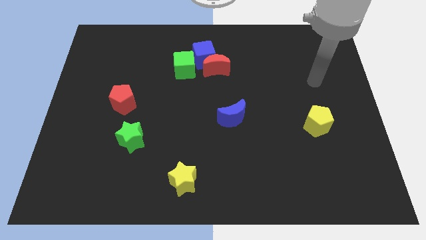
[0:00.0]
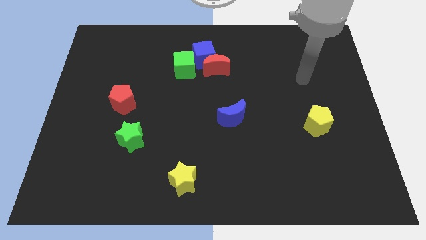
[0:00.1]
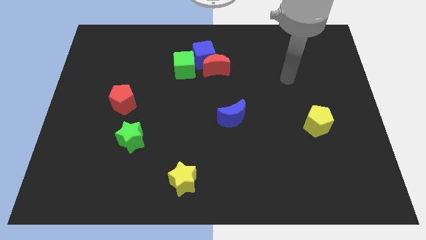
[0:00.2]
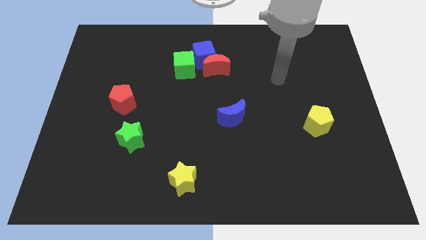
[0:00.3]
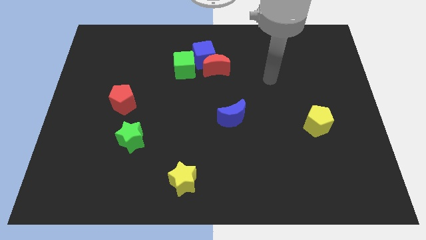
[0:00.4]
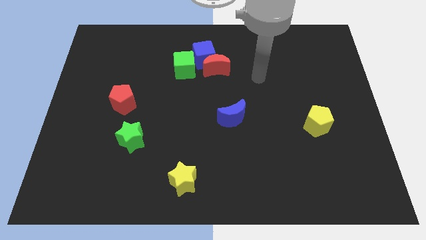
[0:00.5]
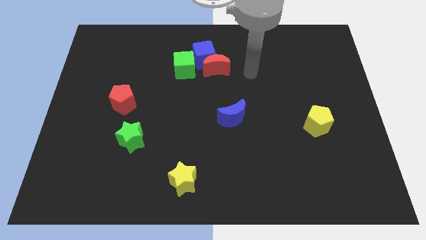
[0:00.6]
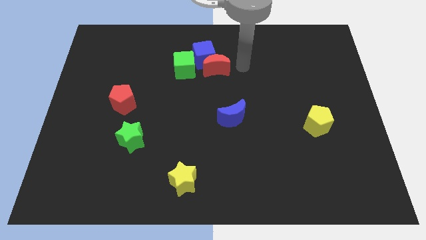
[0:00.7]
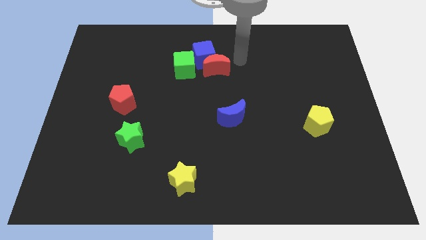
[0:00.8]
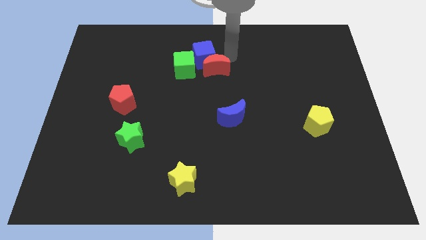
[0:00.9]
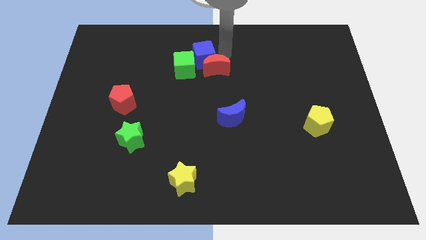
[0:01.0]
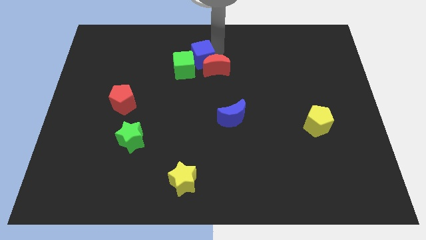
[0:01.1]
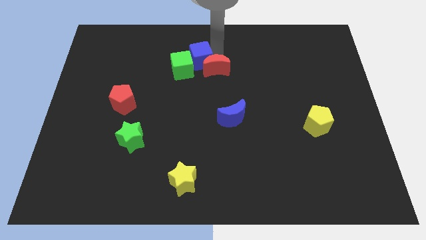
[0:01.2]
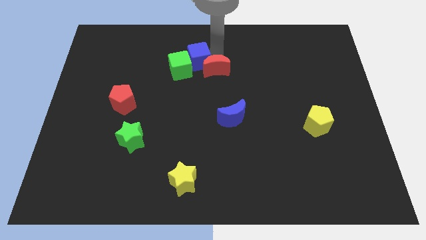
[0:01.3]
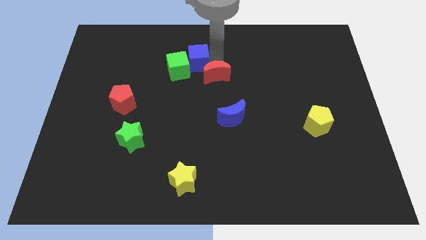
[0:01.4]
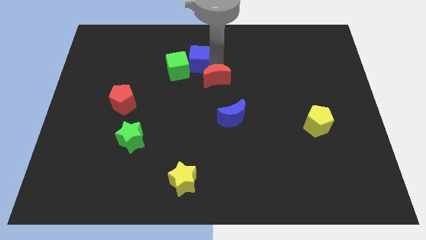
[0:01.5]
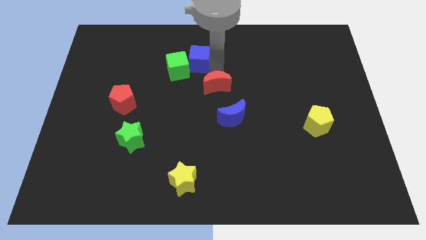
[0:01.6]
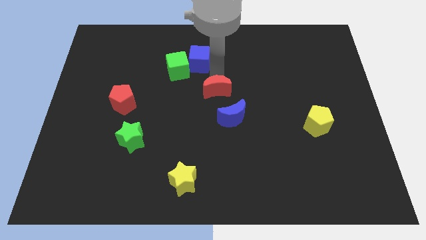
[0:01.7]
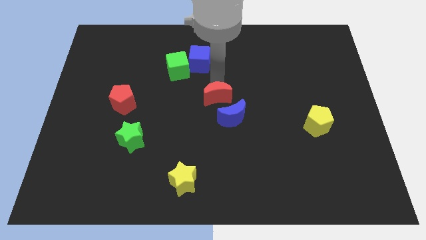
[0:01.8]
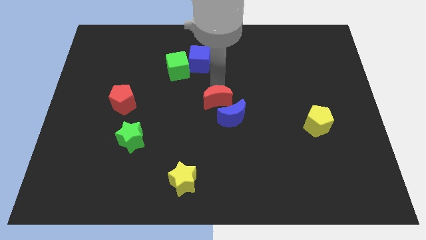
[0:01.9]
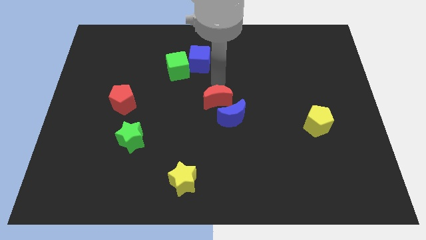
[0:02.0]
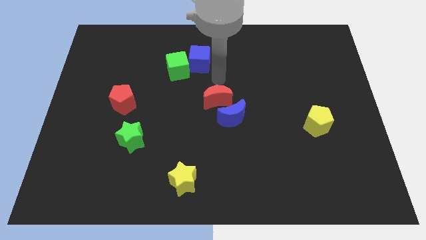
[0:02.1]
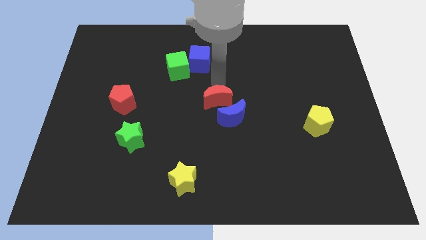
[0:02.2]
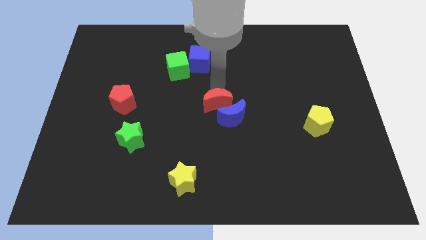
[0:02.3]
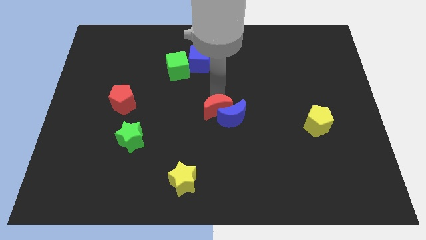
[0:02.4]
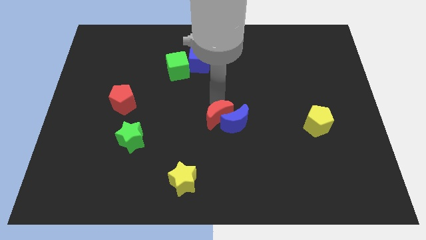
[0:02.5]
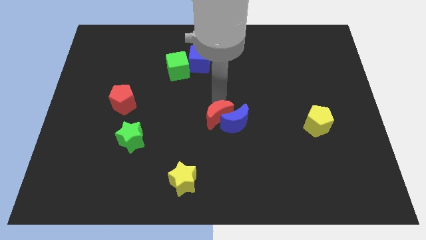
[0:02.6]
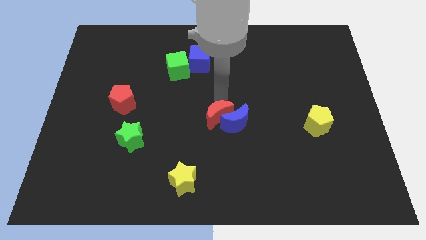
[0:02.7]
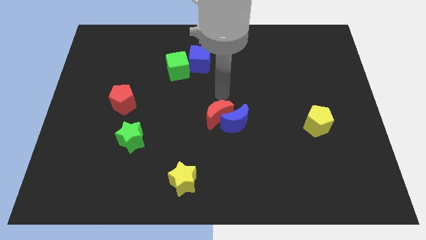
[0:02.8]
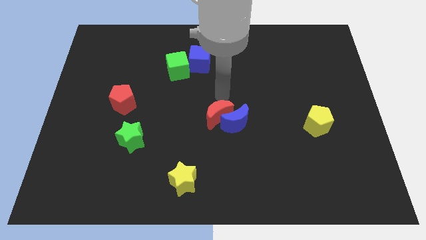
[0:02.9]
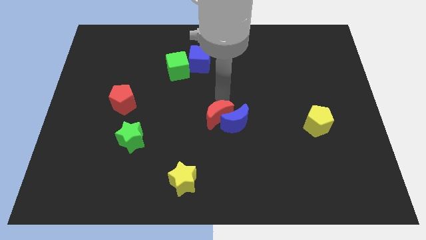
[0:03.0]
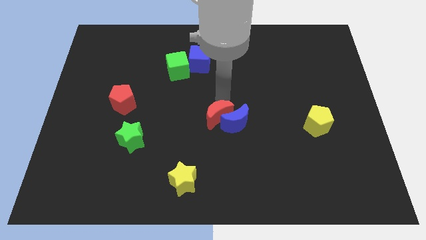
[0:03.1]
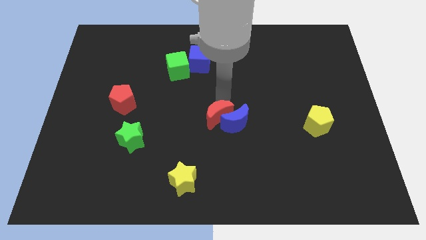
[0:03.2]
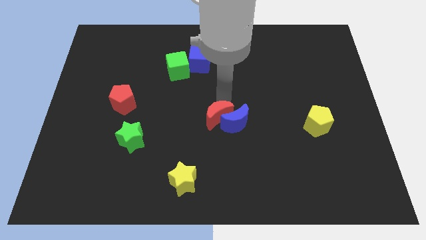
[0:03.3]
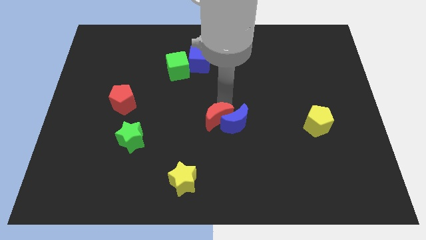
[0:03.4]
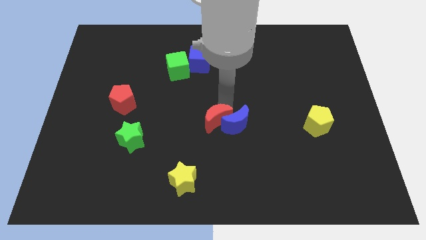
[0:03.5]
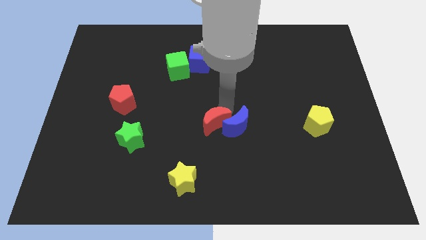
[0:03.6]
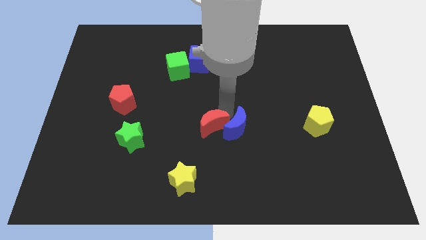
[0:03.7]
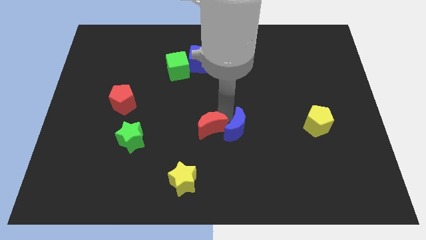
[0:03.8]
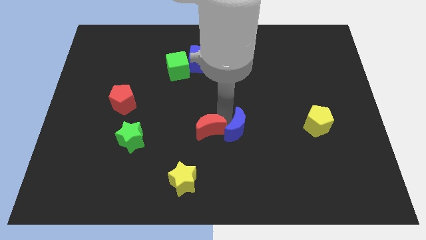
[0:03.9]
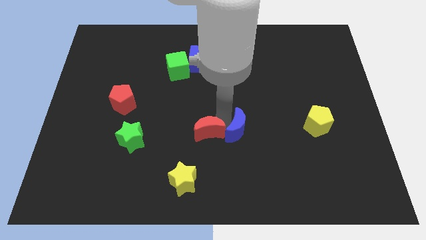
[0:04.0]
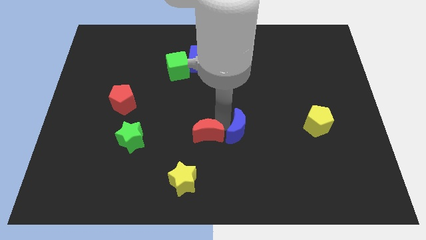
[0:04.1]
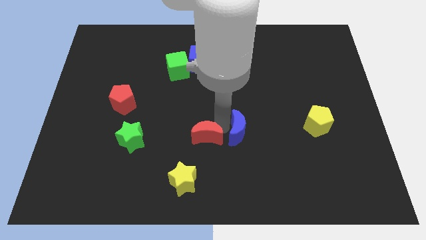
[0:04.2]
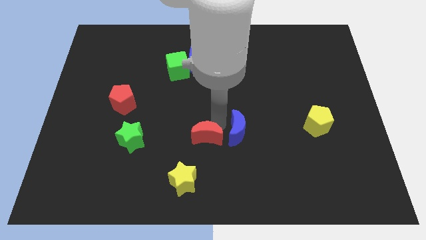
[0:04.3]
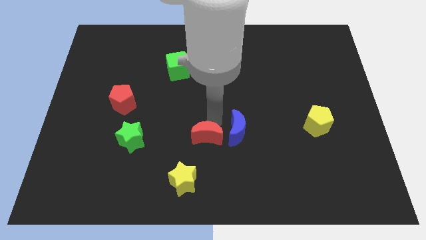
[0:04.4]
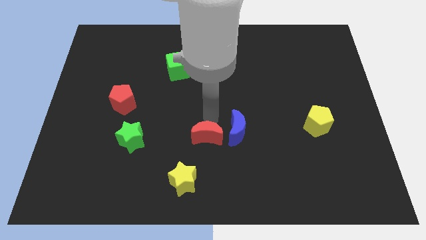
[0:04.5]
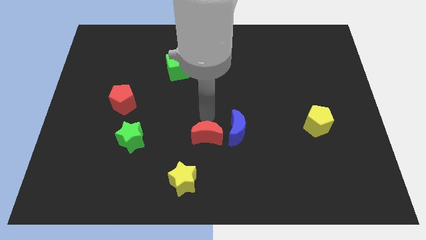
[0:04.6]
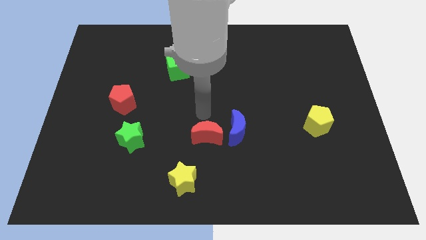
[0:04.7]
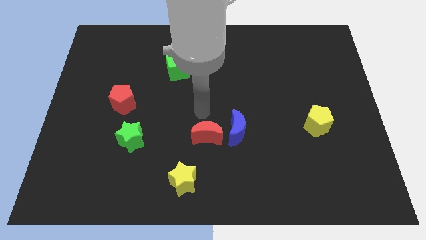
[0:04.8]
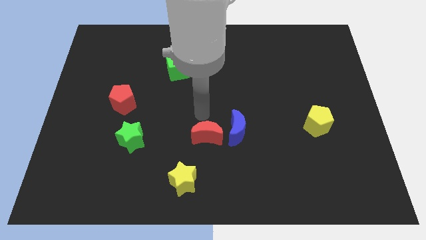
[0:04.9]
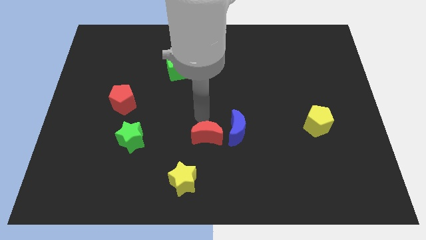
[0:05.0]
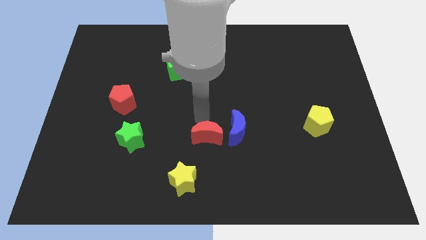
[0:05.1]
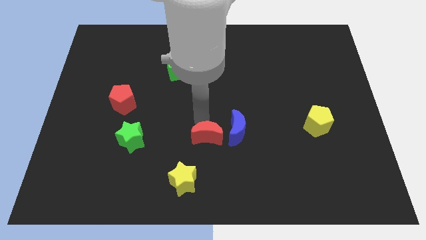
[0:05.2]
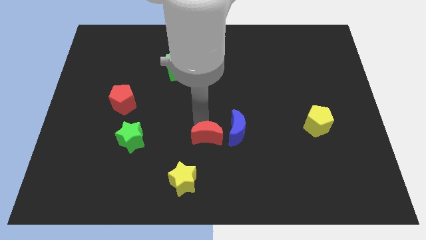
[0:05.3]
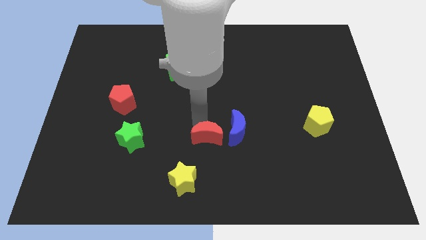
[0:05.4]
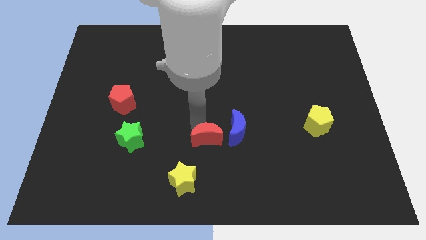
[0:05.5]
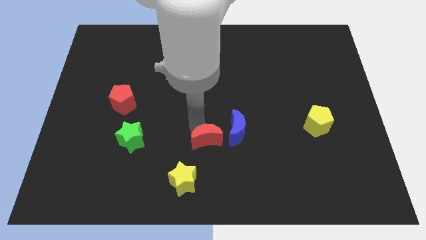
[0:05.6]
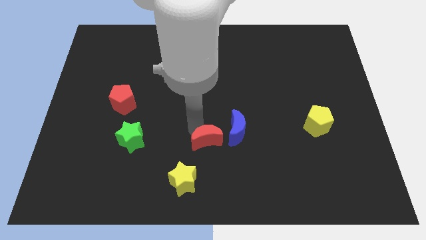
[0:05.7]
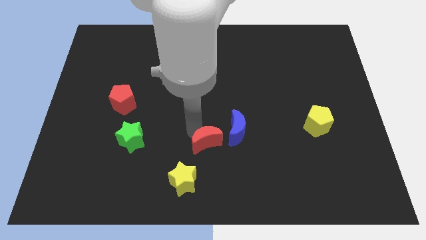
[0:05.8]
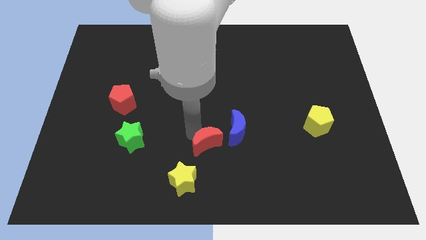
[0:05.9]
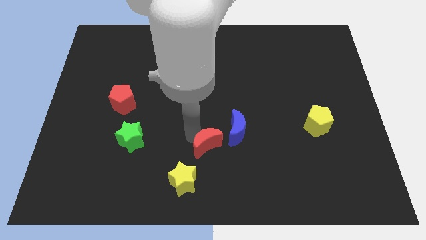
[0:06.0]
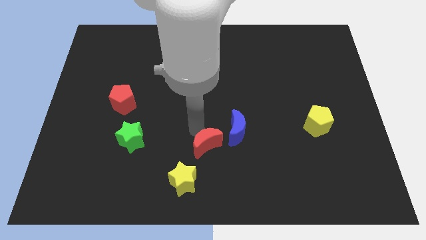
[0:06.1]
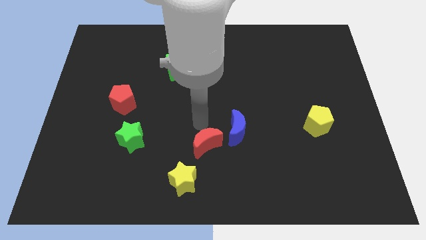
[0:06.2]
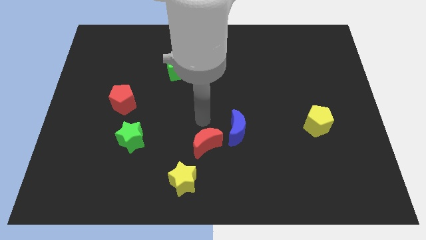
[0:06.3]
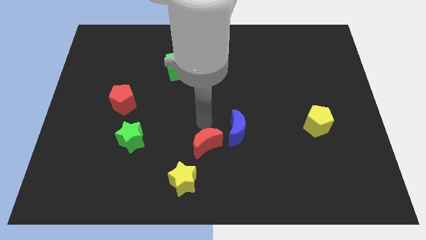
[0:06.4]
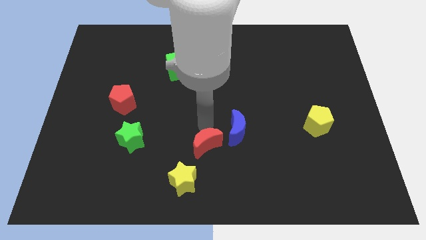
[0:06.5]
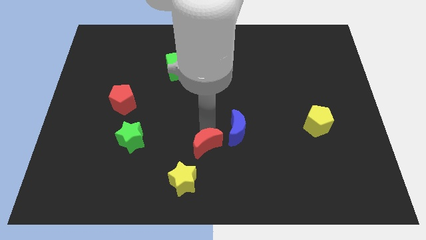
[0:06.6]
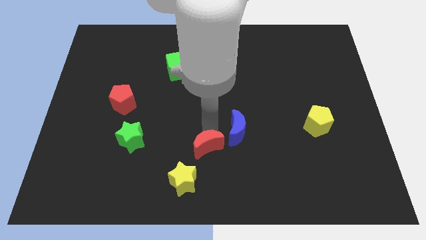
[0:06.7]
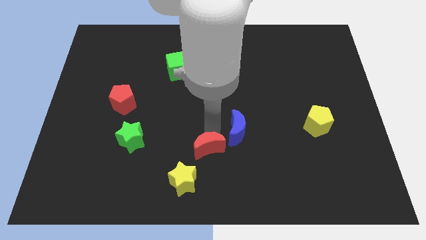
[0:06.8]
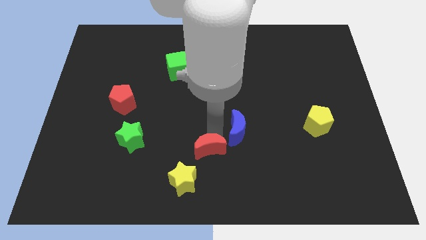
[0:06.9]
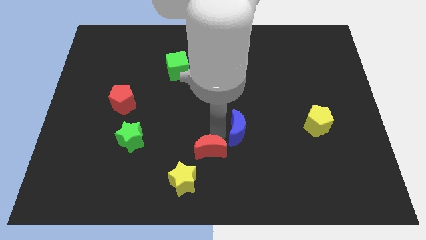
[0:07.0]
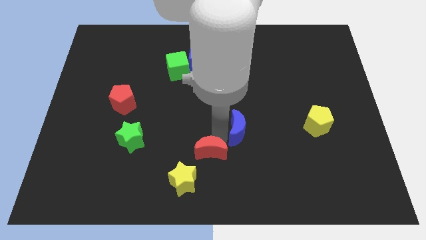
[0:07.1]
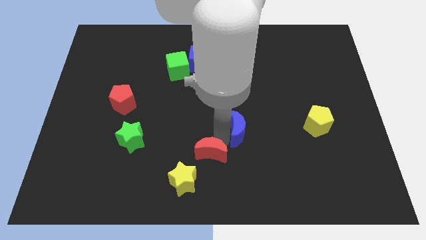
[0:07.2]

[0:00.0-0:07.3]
move the red moon to the bottom side
